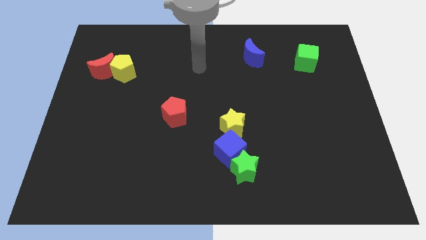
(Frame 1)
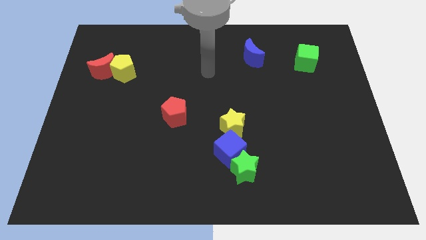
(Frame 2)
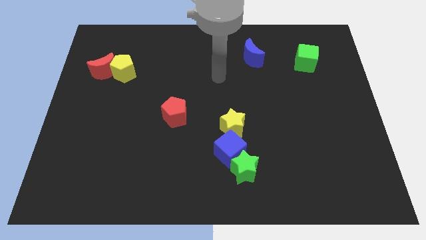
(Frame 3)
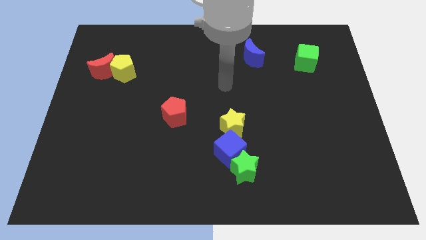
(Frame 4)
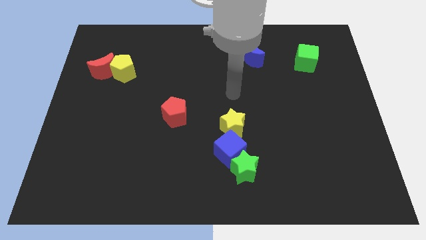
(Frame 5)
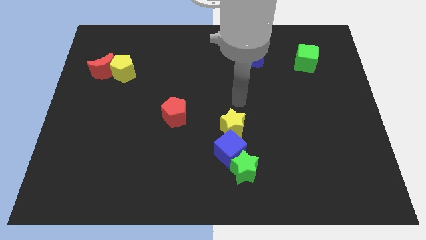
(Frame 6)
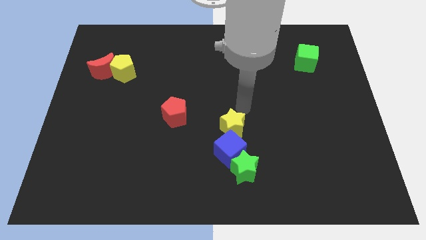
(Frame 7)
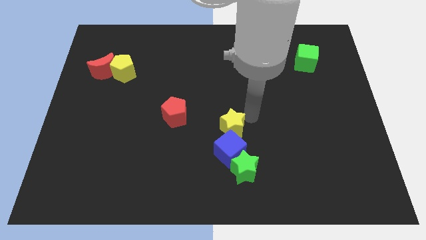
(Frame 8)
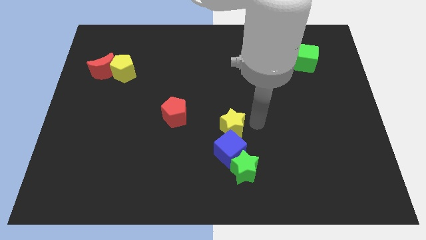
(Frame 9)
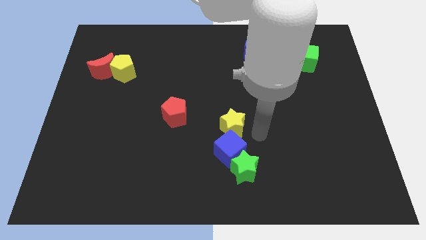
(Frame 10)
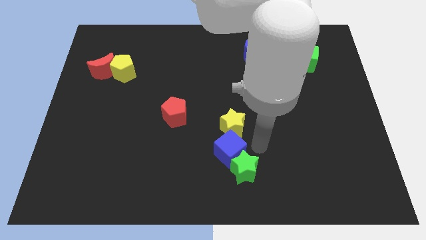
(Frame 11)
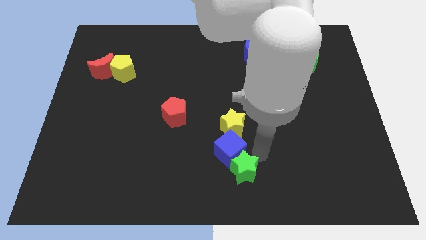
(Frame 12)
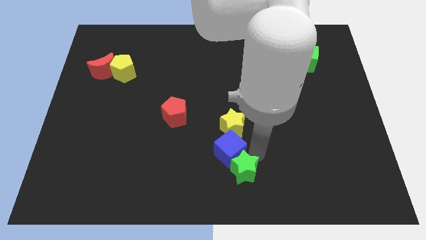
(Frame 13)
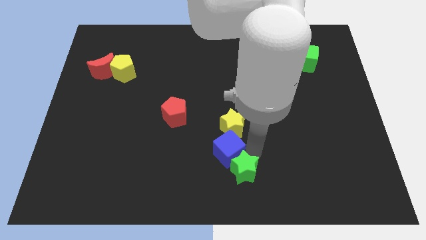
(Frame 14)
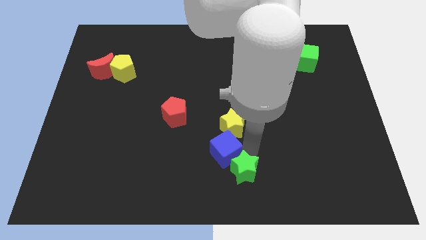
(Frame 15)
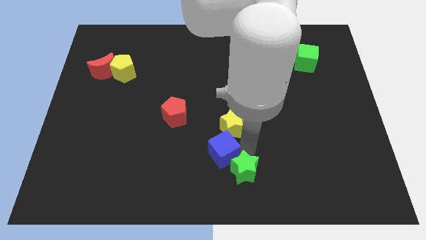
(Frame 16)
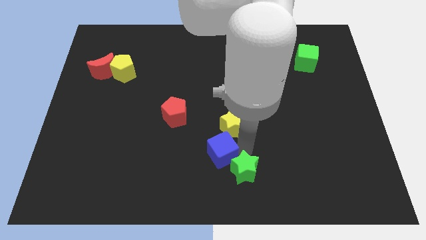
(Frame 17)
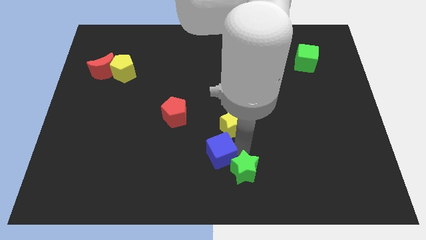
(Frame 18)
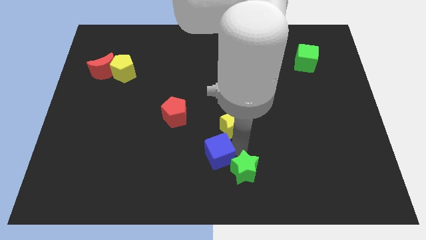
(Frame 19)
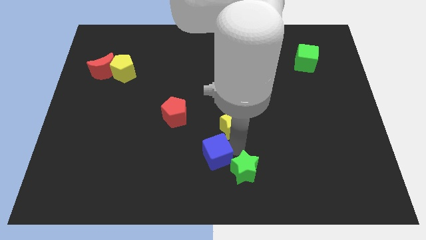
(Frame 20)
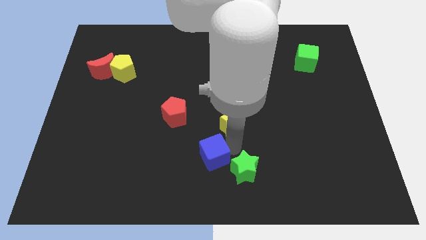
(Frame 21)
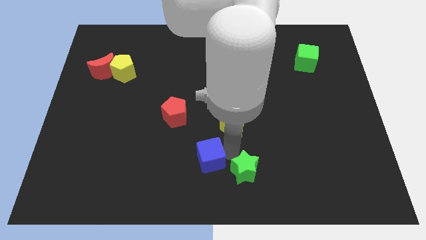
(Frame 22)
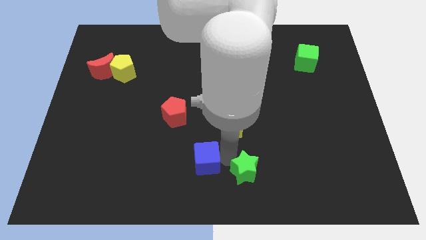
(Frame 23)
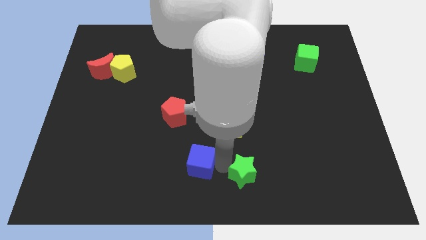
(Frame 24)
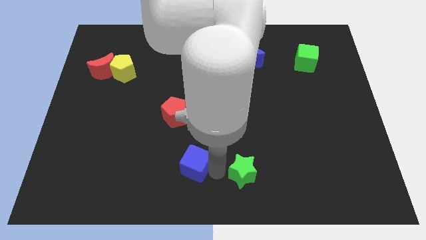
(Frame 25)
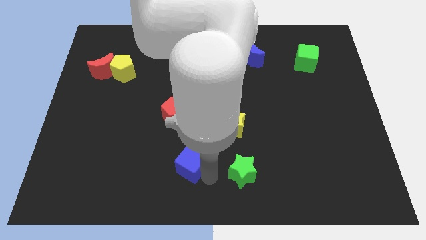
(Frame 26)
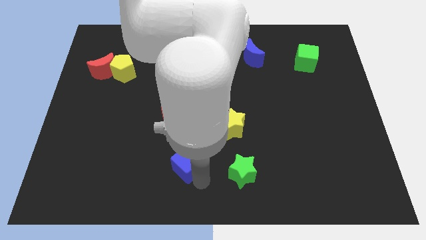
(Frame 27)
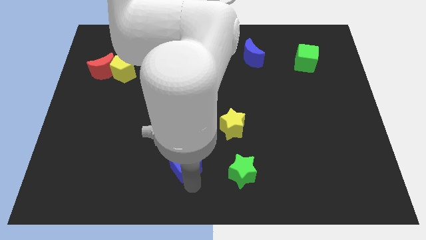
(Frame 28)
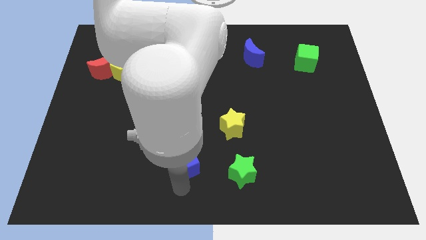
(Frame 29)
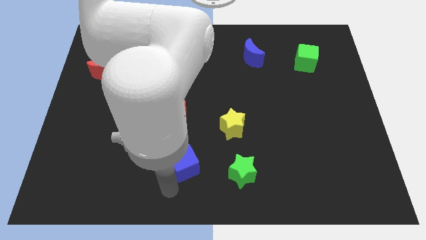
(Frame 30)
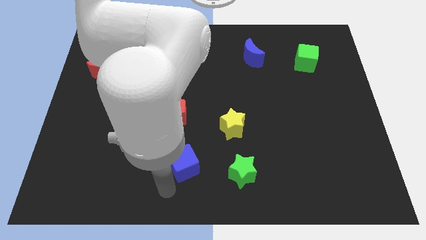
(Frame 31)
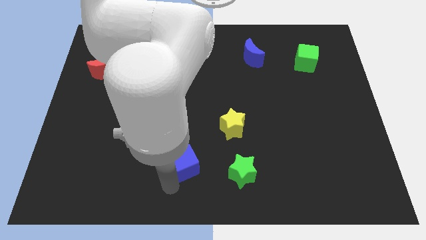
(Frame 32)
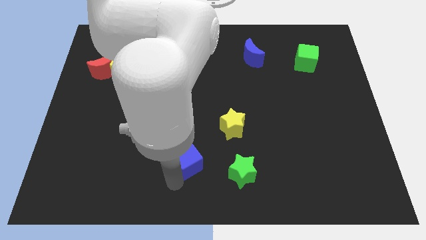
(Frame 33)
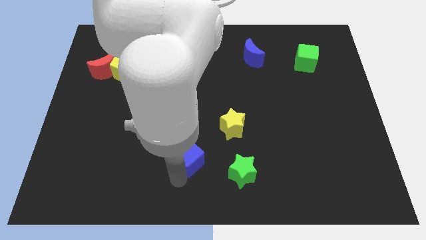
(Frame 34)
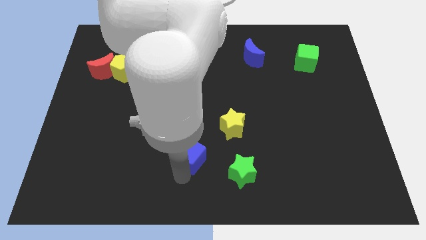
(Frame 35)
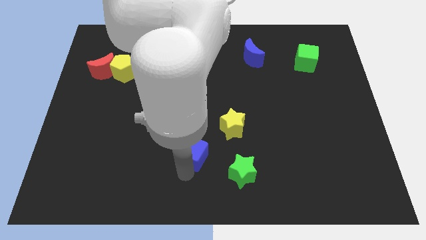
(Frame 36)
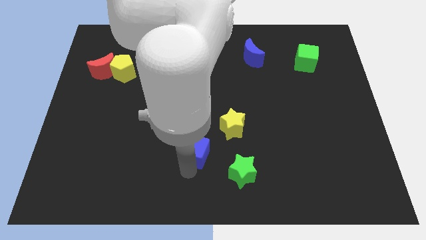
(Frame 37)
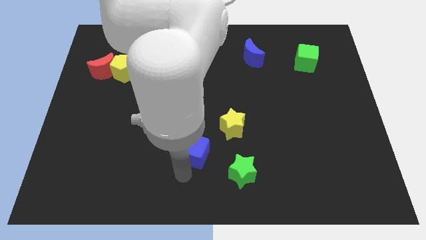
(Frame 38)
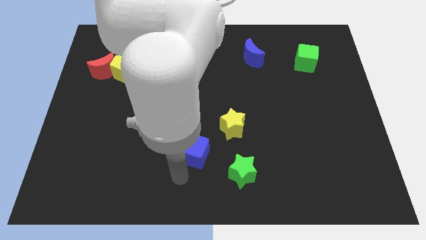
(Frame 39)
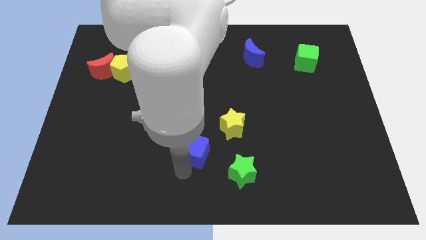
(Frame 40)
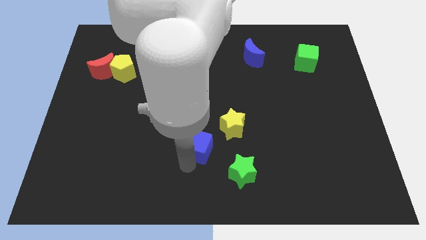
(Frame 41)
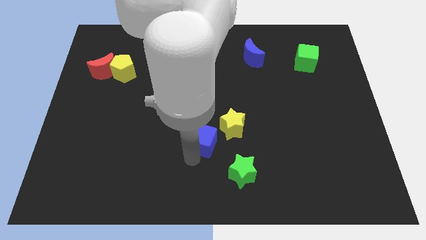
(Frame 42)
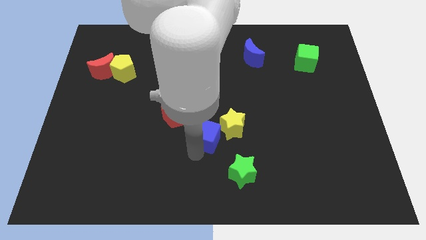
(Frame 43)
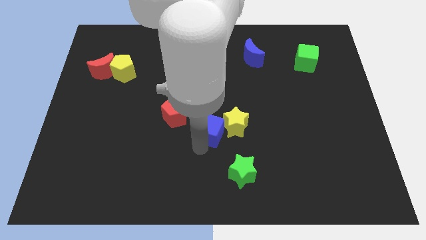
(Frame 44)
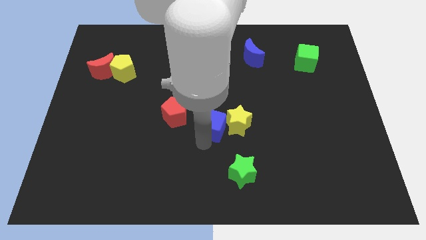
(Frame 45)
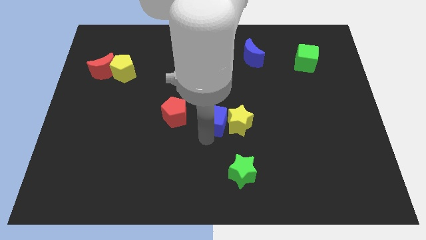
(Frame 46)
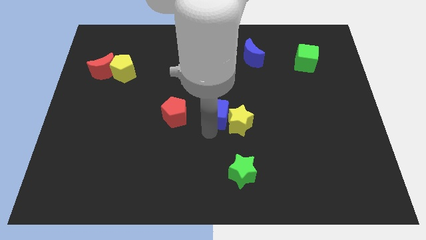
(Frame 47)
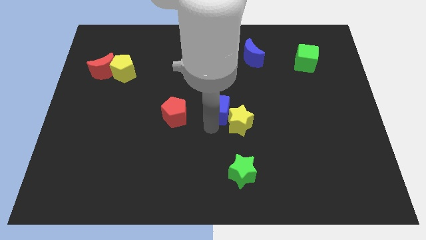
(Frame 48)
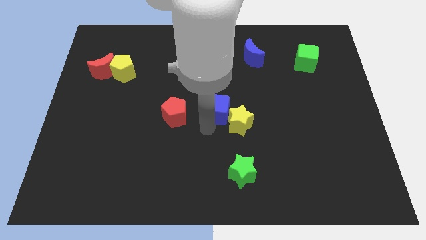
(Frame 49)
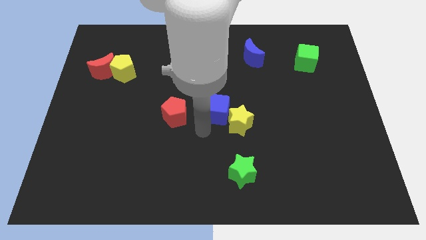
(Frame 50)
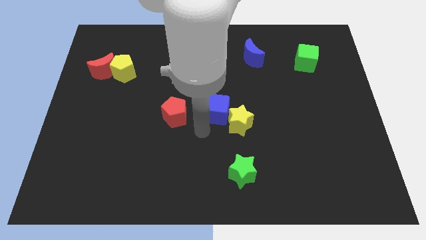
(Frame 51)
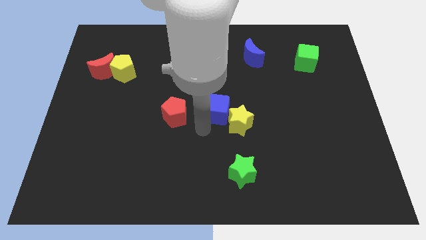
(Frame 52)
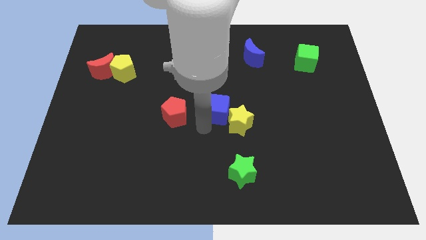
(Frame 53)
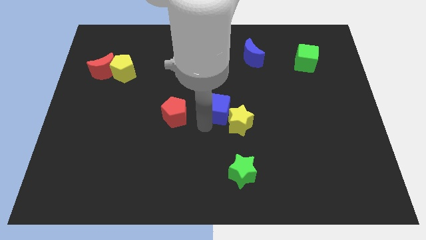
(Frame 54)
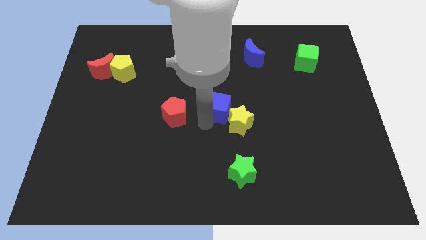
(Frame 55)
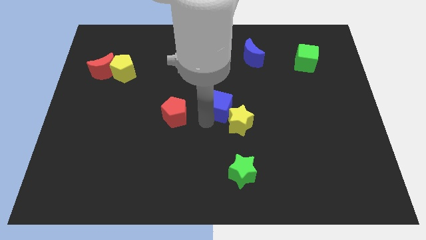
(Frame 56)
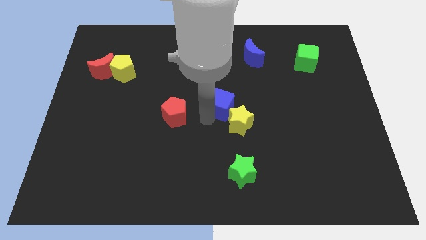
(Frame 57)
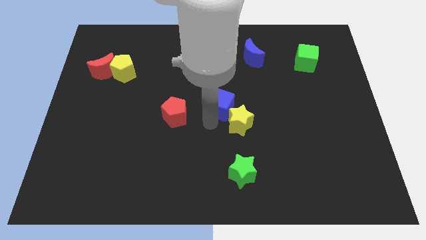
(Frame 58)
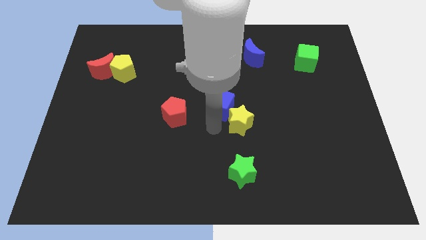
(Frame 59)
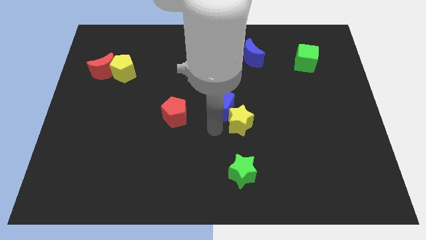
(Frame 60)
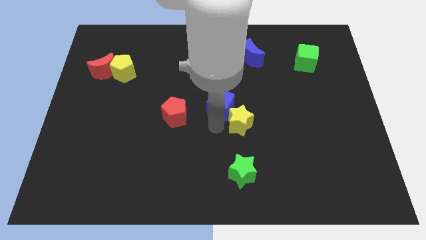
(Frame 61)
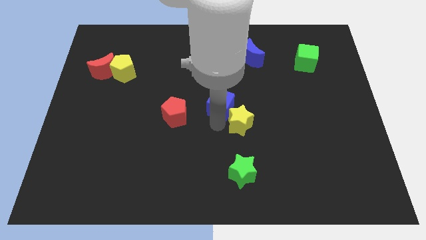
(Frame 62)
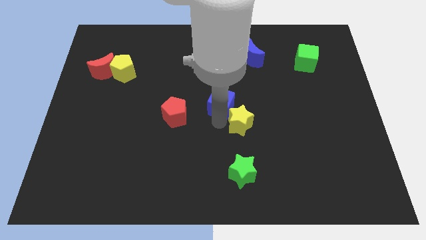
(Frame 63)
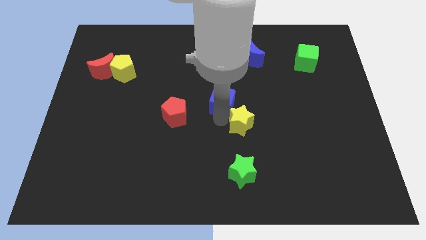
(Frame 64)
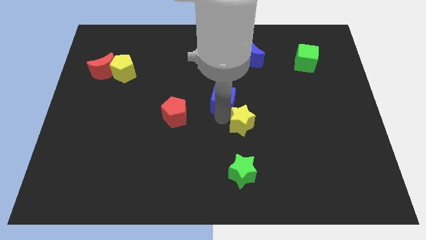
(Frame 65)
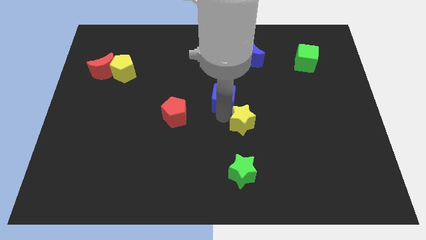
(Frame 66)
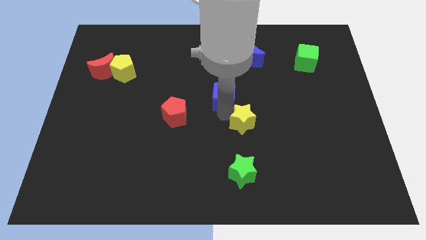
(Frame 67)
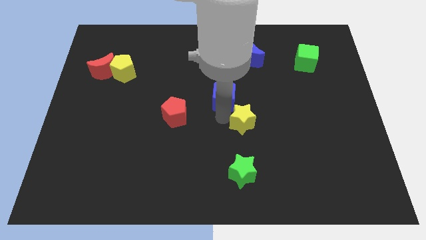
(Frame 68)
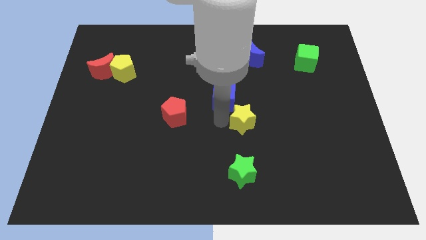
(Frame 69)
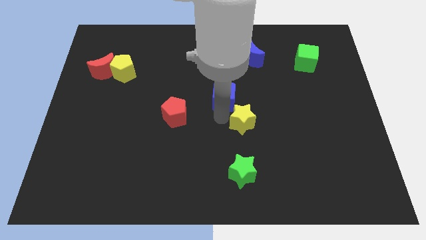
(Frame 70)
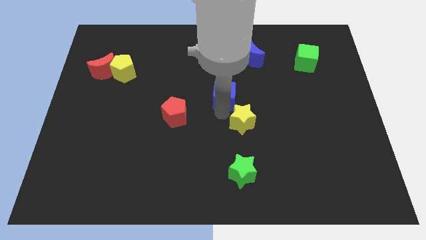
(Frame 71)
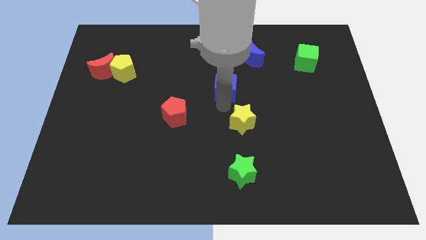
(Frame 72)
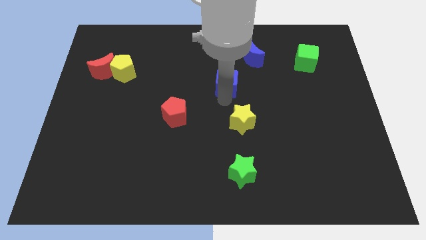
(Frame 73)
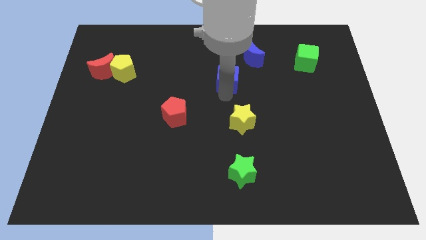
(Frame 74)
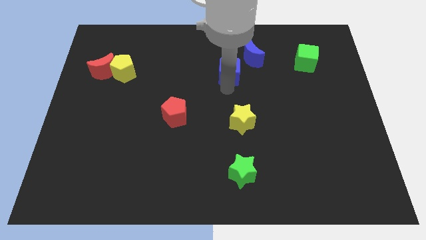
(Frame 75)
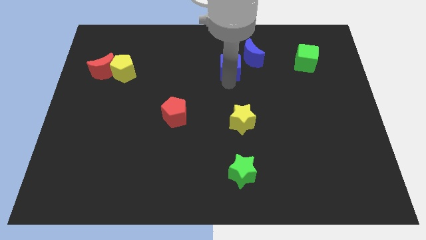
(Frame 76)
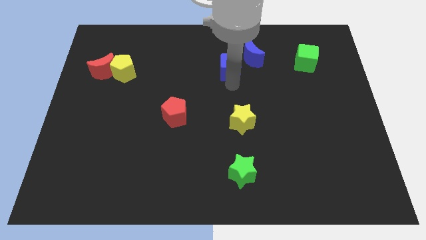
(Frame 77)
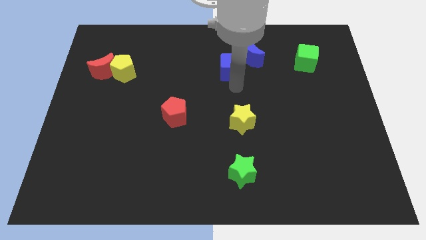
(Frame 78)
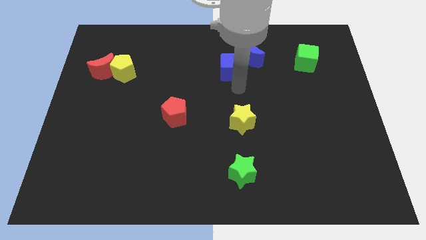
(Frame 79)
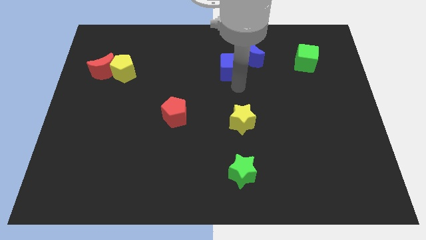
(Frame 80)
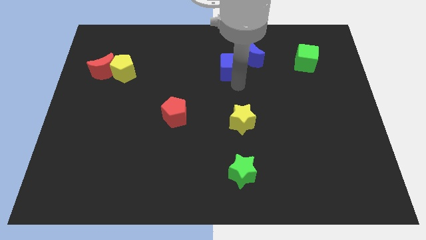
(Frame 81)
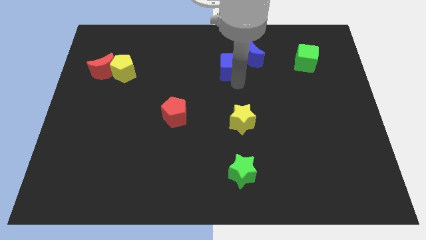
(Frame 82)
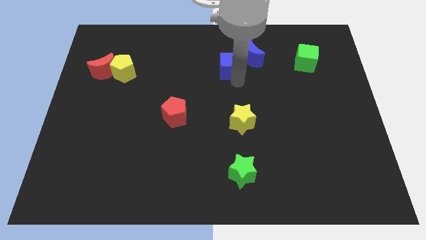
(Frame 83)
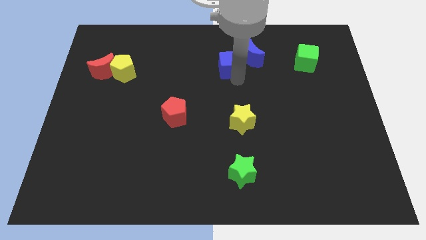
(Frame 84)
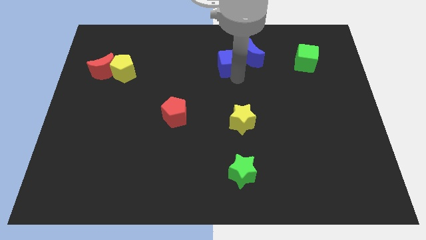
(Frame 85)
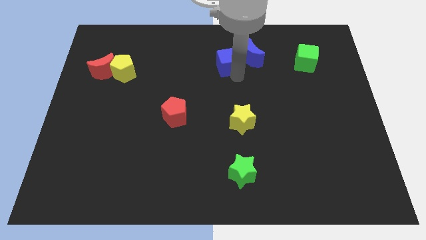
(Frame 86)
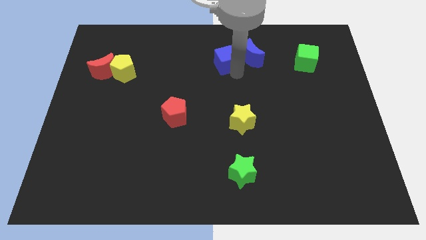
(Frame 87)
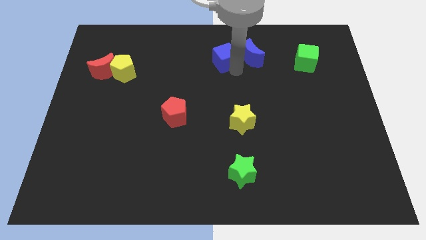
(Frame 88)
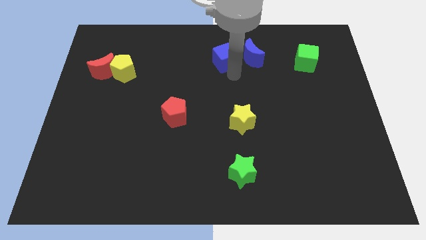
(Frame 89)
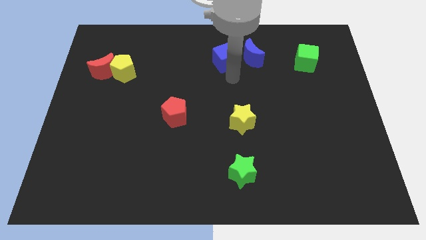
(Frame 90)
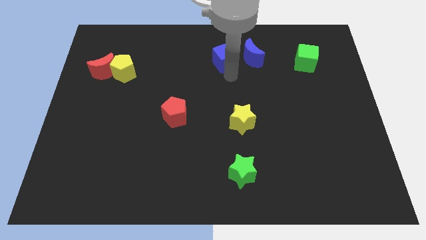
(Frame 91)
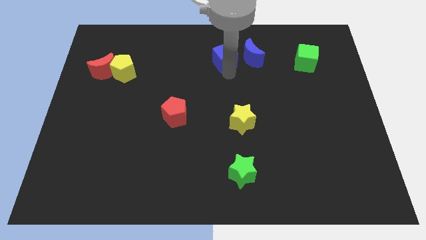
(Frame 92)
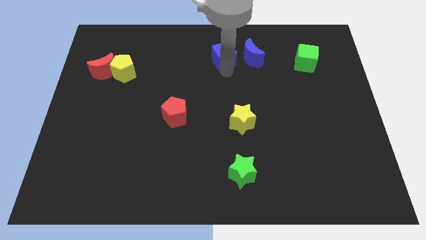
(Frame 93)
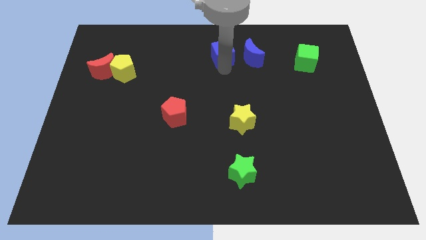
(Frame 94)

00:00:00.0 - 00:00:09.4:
put the blue cube to the top side
